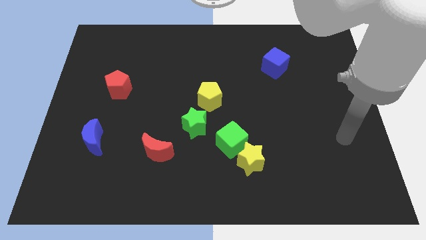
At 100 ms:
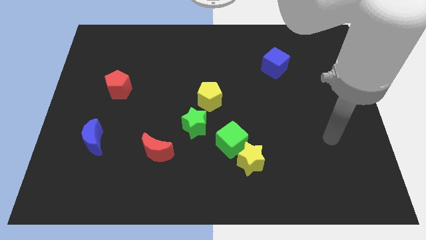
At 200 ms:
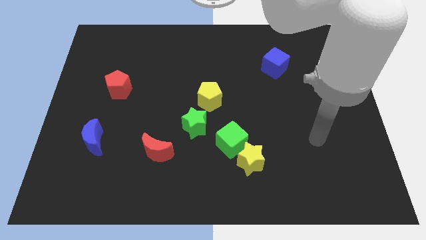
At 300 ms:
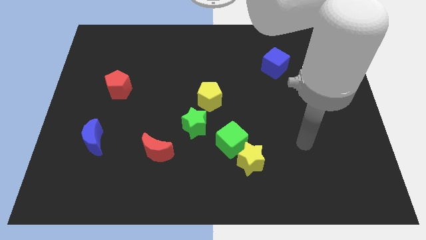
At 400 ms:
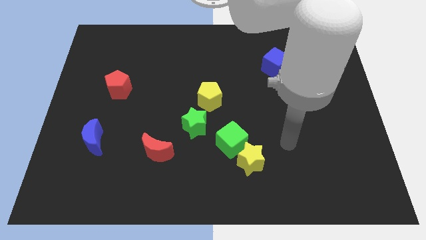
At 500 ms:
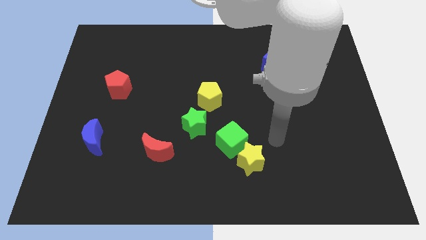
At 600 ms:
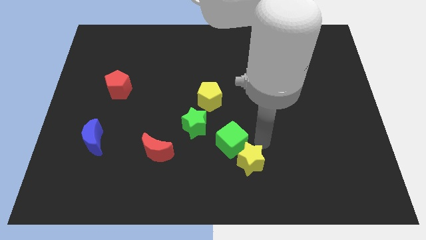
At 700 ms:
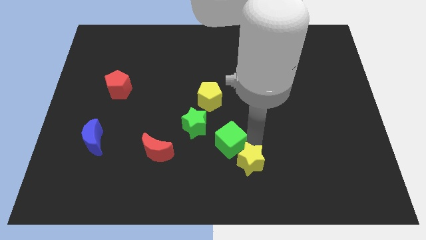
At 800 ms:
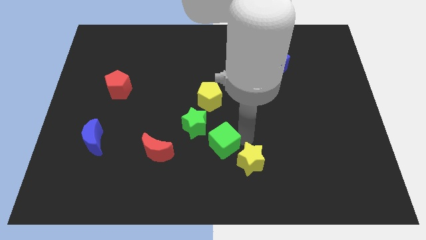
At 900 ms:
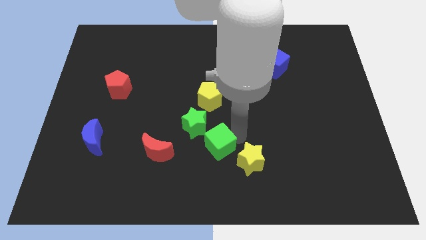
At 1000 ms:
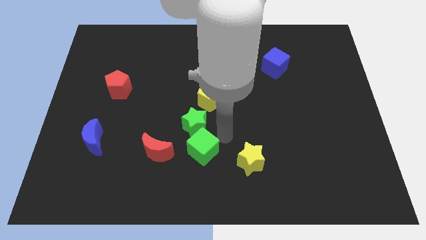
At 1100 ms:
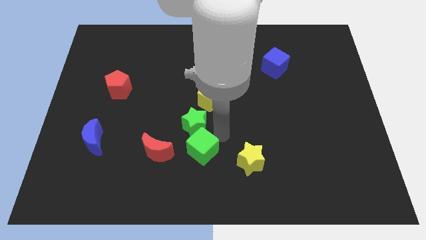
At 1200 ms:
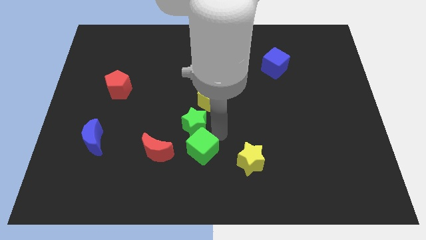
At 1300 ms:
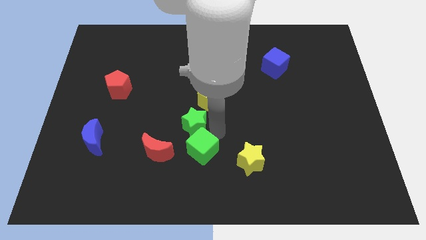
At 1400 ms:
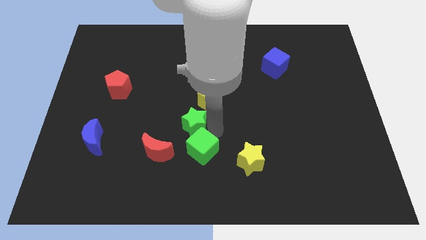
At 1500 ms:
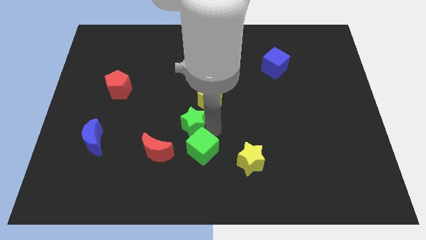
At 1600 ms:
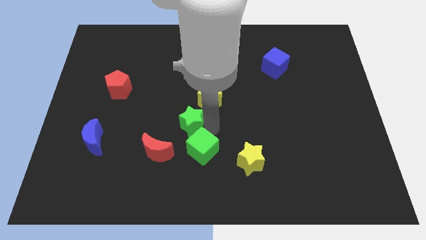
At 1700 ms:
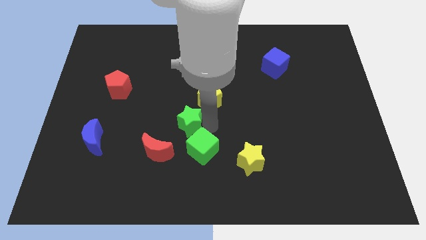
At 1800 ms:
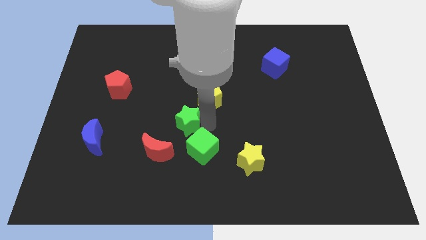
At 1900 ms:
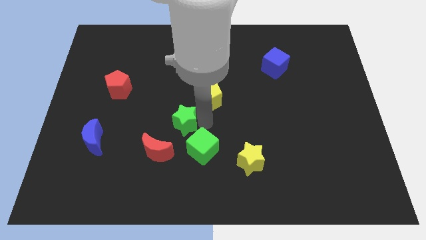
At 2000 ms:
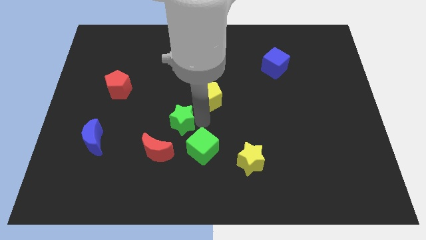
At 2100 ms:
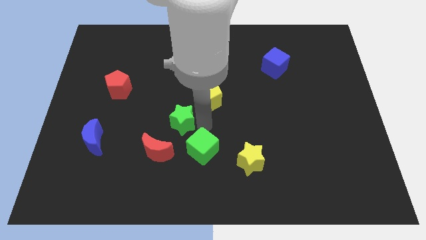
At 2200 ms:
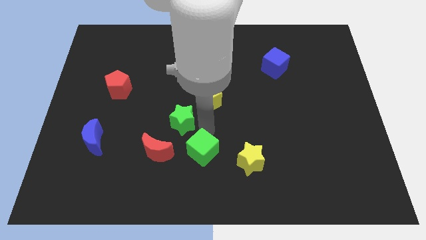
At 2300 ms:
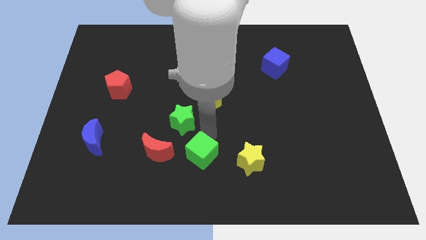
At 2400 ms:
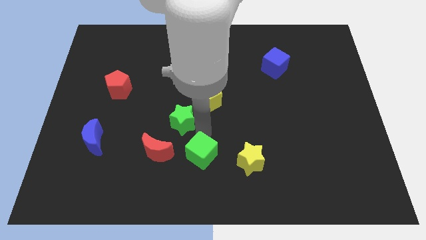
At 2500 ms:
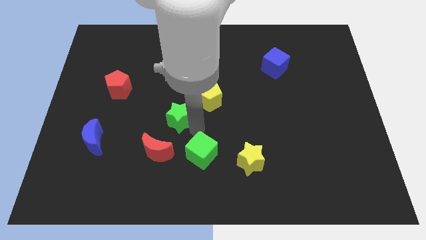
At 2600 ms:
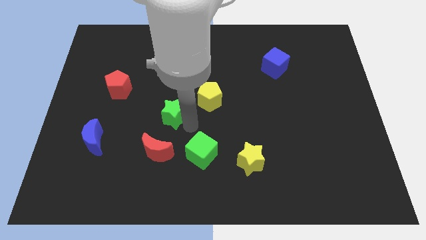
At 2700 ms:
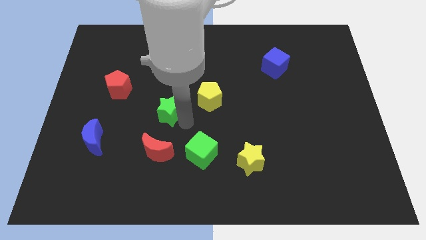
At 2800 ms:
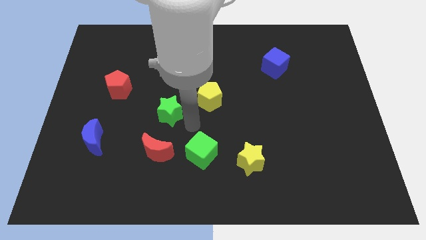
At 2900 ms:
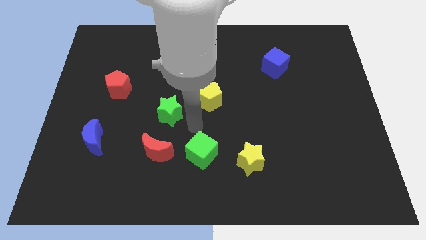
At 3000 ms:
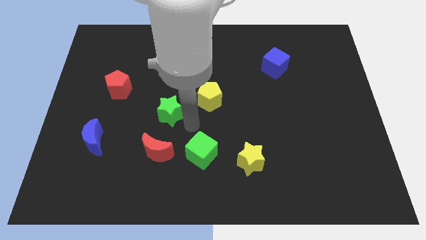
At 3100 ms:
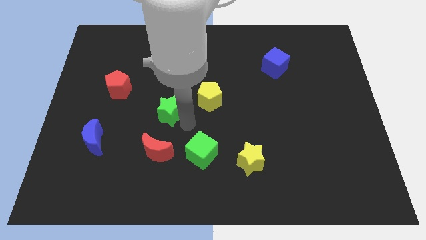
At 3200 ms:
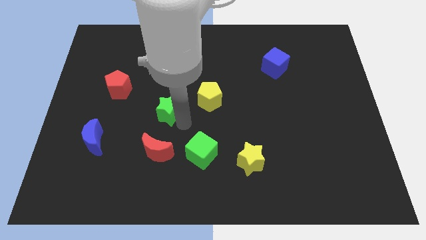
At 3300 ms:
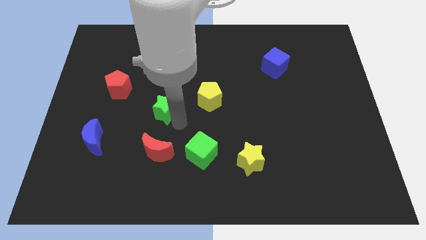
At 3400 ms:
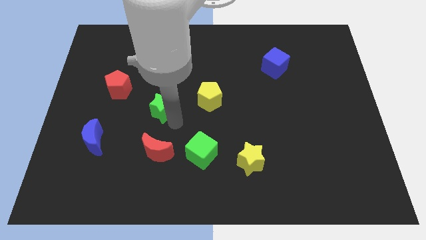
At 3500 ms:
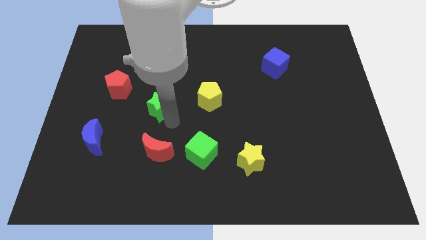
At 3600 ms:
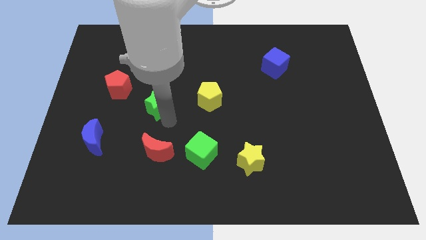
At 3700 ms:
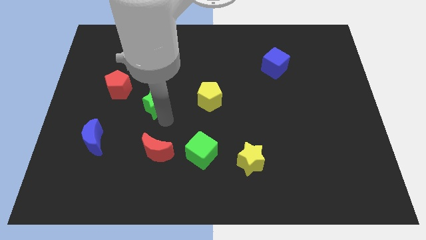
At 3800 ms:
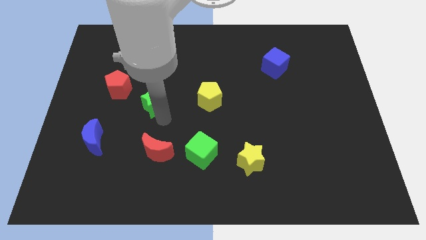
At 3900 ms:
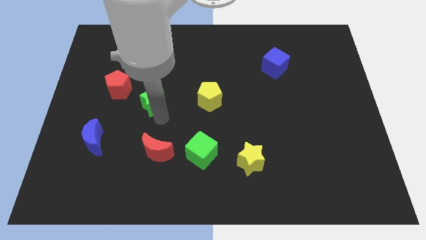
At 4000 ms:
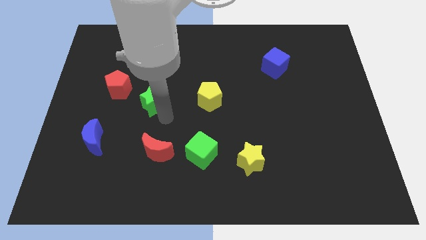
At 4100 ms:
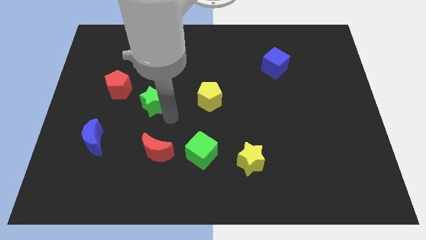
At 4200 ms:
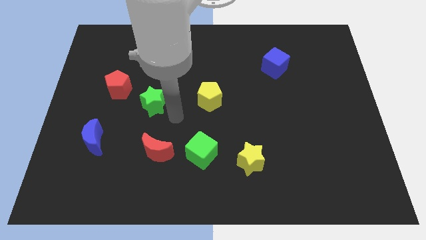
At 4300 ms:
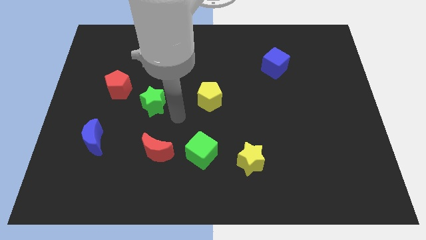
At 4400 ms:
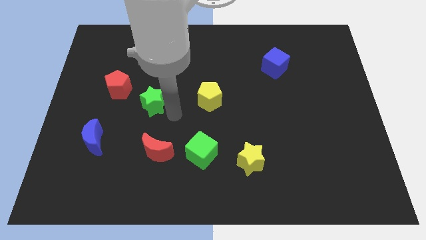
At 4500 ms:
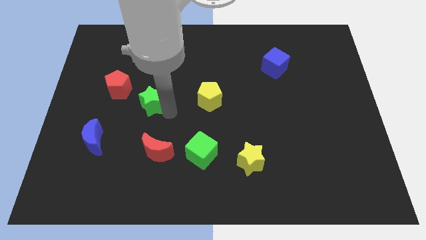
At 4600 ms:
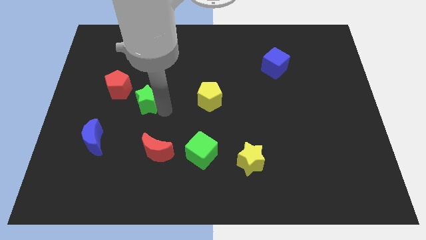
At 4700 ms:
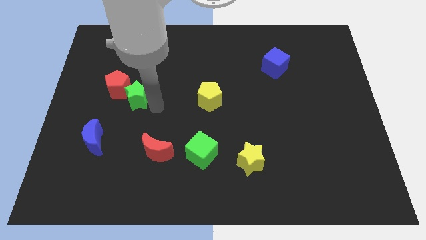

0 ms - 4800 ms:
move the green star to the red pentagon

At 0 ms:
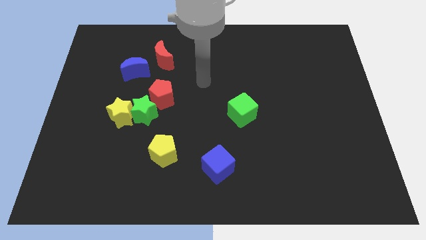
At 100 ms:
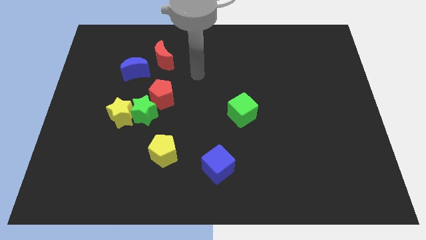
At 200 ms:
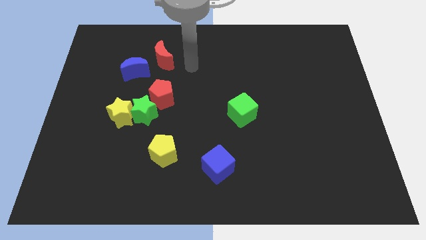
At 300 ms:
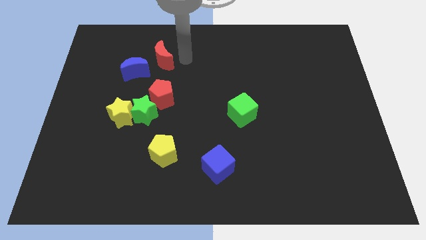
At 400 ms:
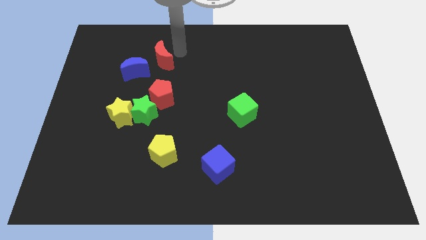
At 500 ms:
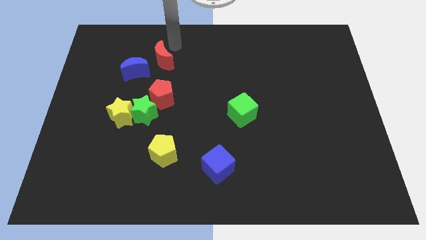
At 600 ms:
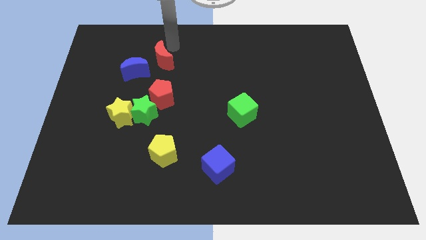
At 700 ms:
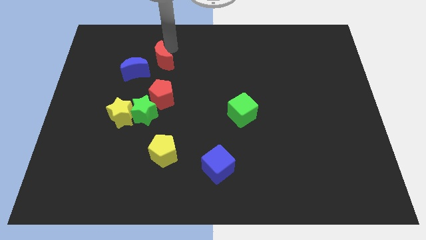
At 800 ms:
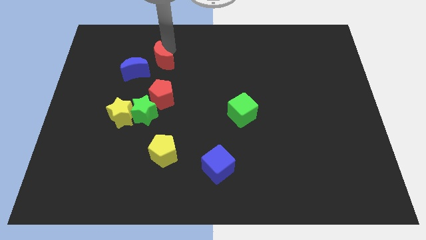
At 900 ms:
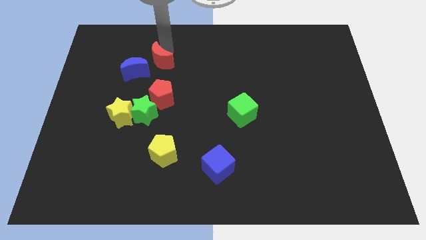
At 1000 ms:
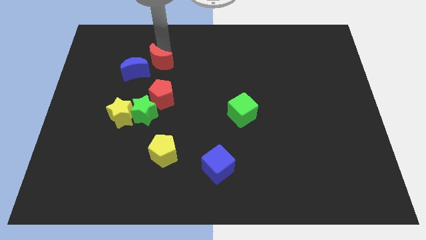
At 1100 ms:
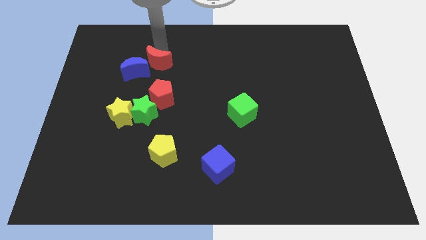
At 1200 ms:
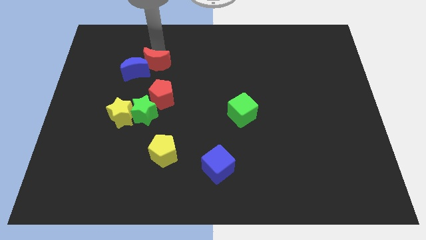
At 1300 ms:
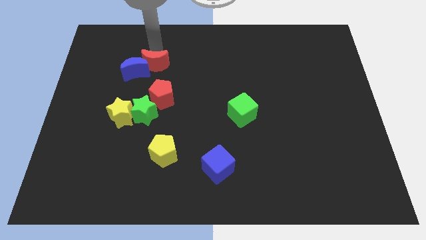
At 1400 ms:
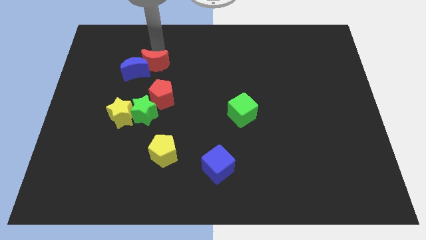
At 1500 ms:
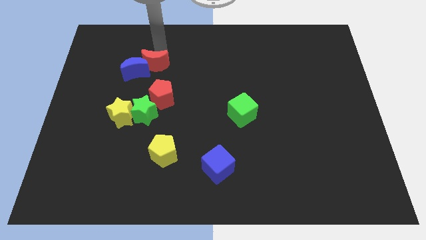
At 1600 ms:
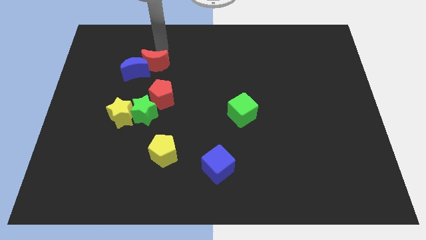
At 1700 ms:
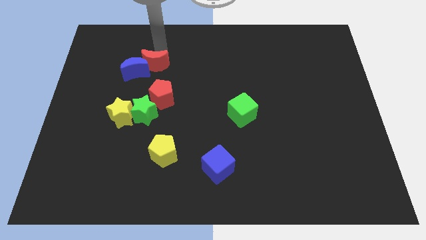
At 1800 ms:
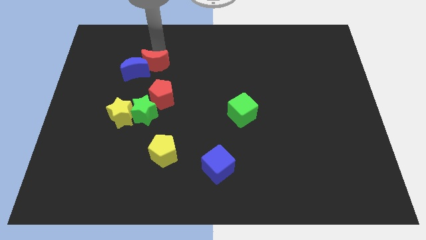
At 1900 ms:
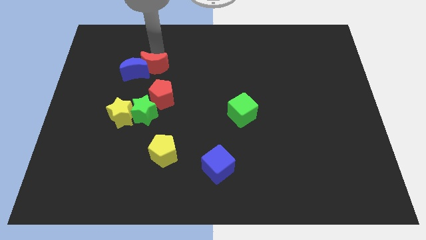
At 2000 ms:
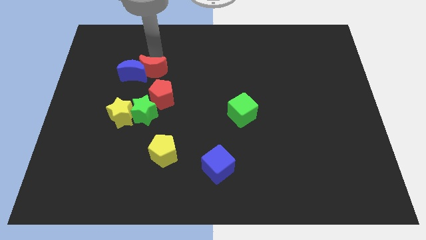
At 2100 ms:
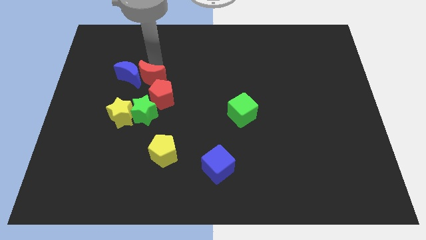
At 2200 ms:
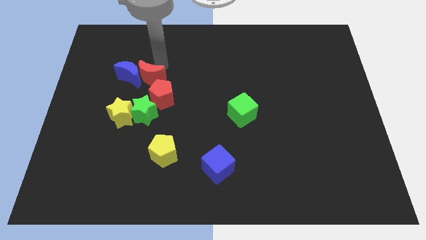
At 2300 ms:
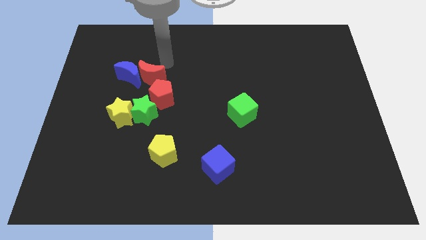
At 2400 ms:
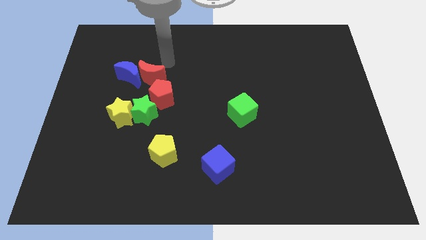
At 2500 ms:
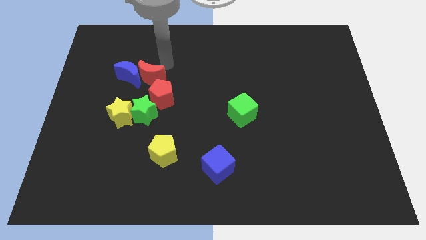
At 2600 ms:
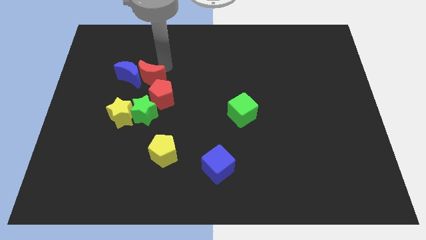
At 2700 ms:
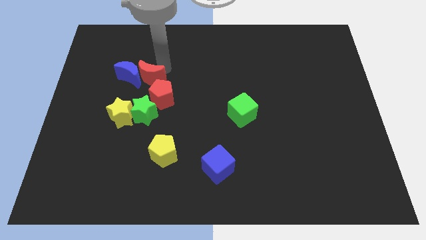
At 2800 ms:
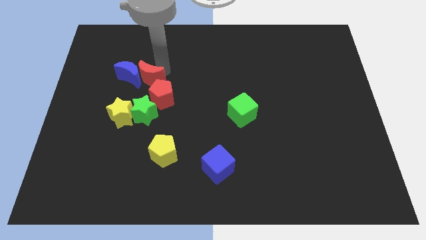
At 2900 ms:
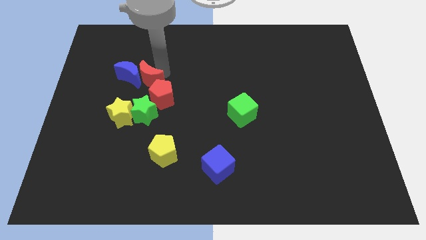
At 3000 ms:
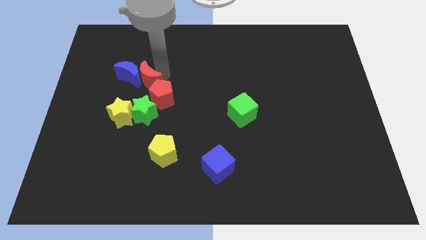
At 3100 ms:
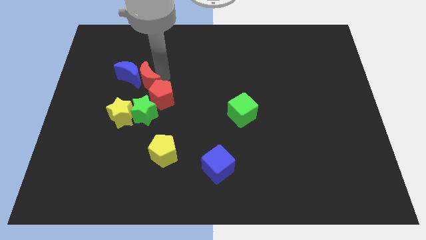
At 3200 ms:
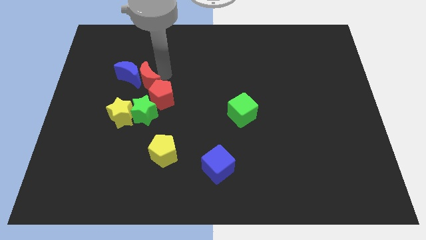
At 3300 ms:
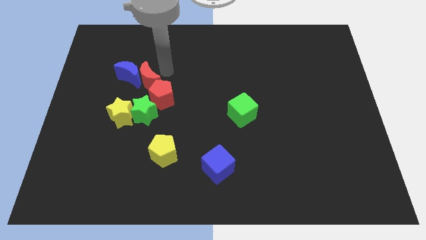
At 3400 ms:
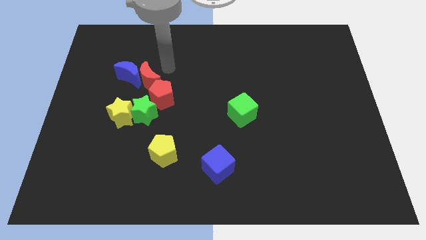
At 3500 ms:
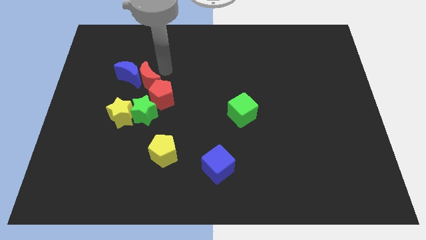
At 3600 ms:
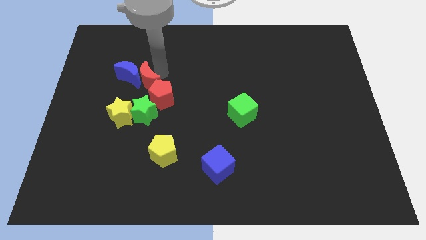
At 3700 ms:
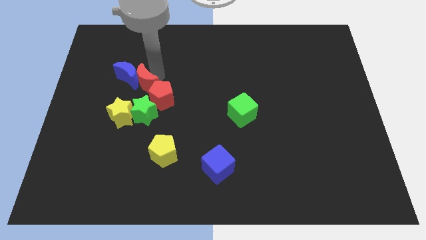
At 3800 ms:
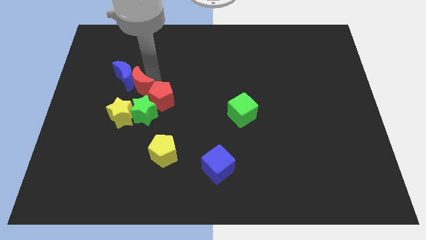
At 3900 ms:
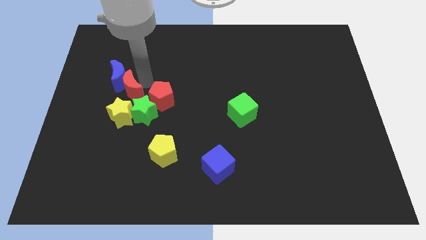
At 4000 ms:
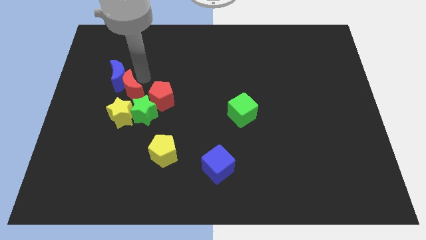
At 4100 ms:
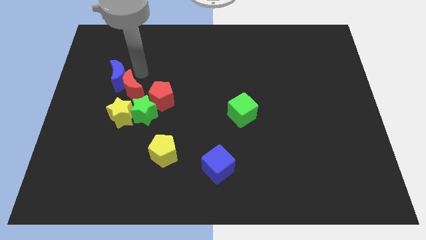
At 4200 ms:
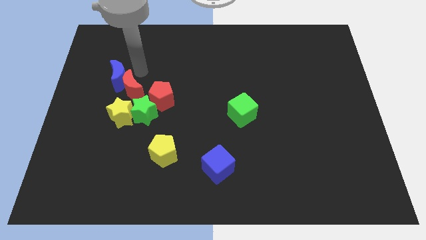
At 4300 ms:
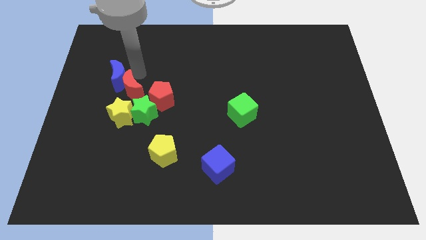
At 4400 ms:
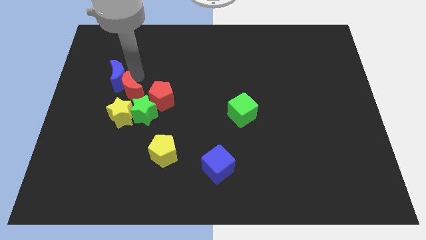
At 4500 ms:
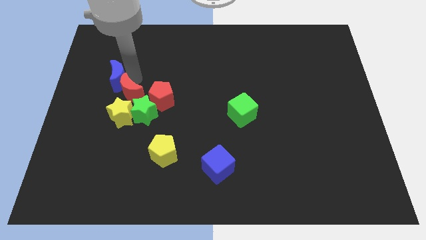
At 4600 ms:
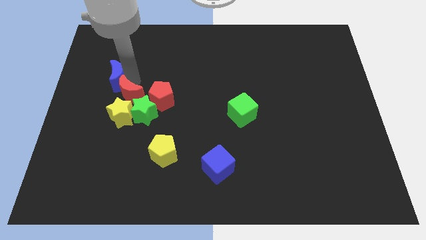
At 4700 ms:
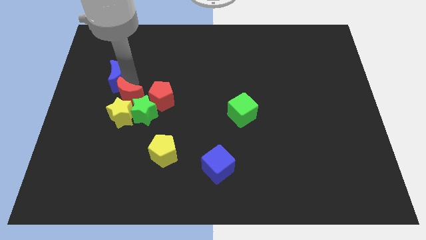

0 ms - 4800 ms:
move the red moon to the yellow star
